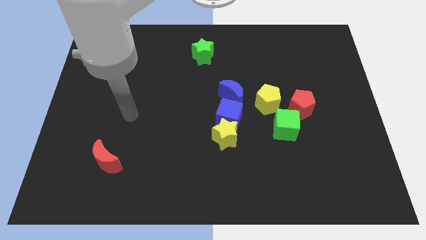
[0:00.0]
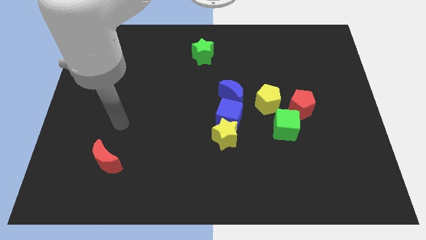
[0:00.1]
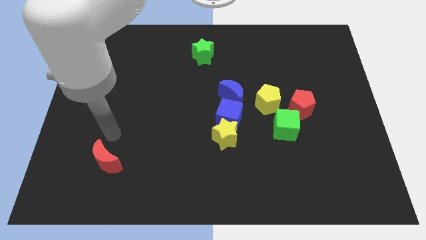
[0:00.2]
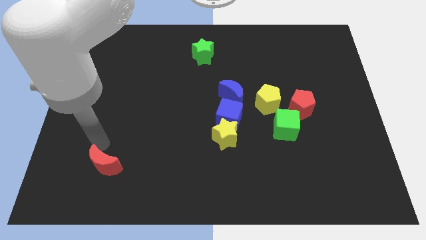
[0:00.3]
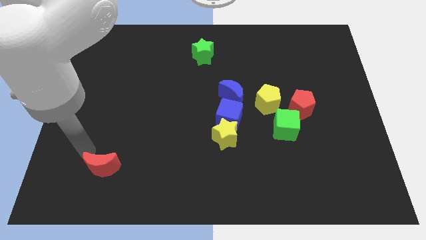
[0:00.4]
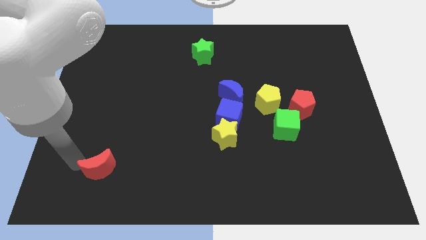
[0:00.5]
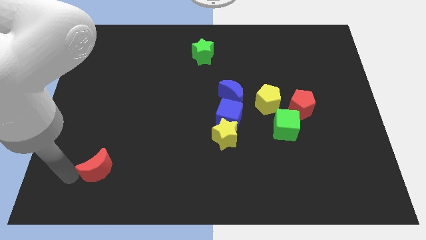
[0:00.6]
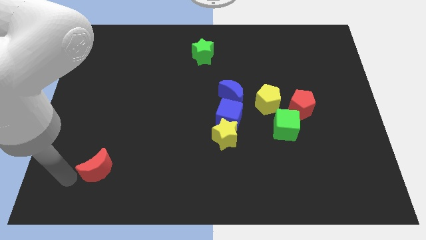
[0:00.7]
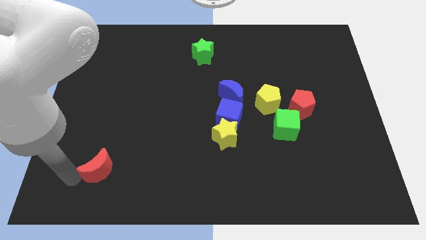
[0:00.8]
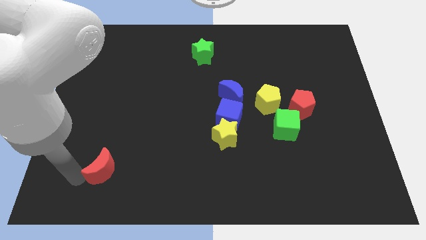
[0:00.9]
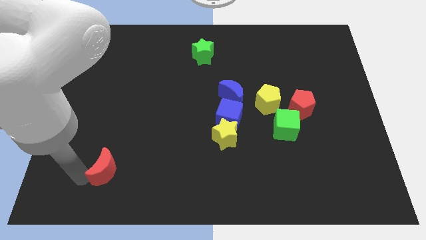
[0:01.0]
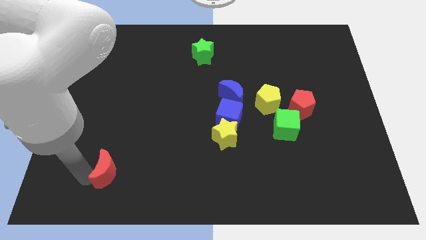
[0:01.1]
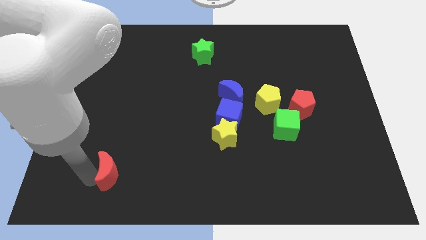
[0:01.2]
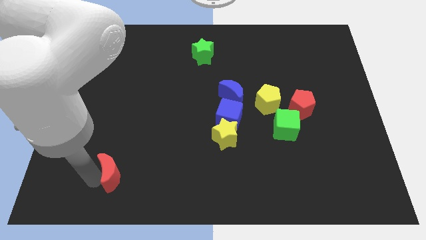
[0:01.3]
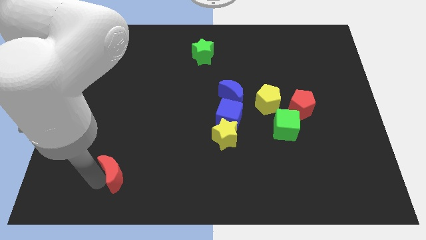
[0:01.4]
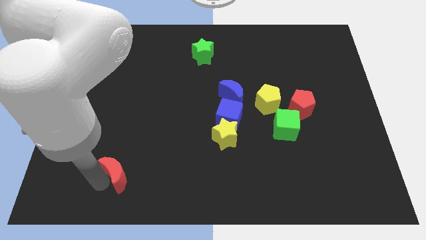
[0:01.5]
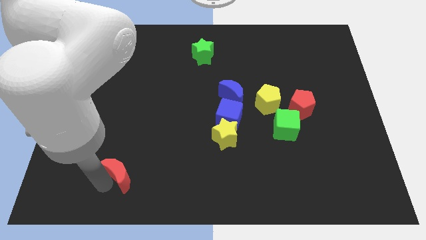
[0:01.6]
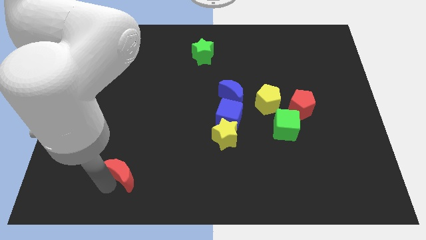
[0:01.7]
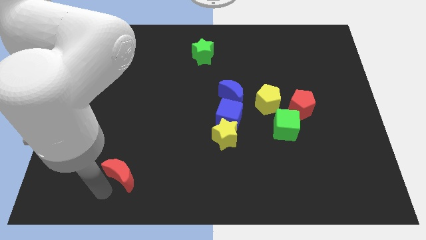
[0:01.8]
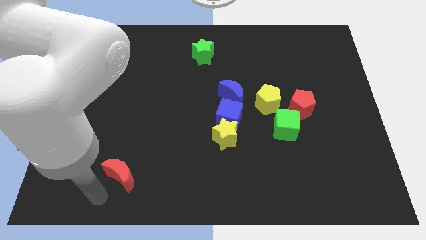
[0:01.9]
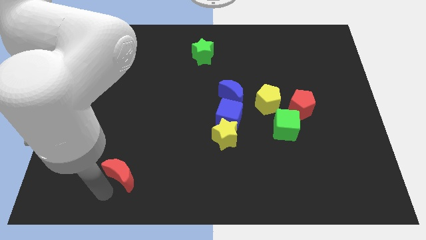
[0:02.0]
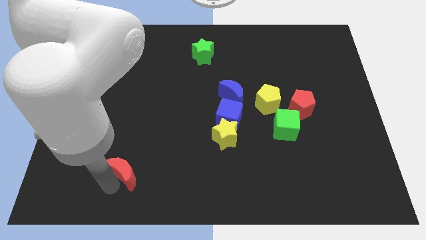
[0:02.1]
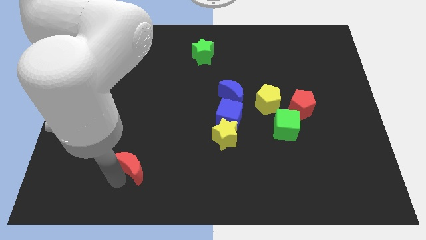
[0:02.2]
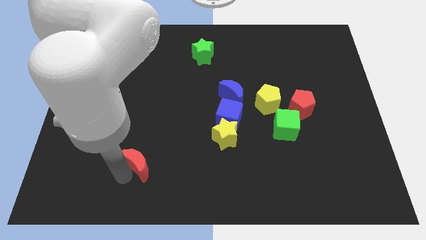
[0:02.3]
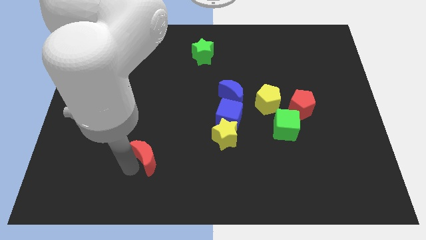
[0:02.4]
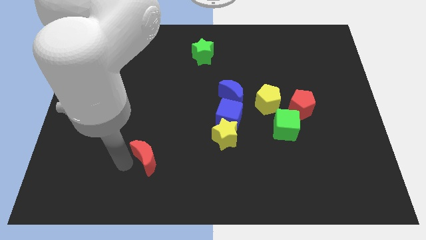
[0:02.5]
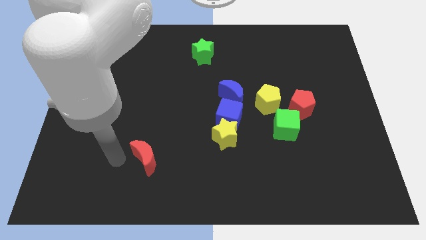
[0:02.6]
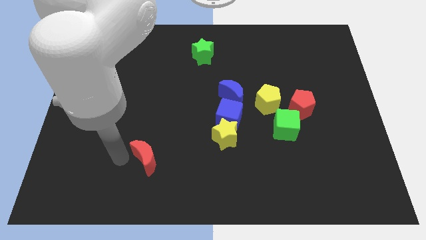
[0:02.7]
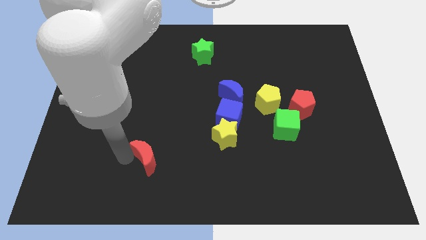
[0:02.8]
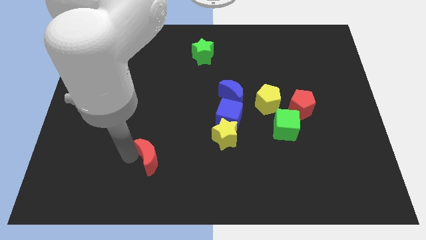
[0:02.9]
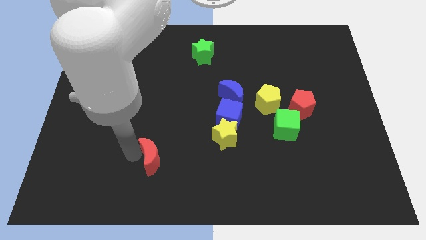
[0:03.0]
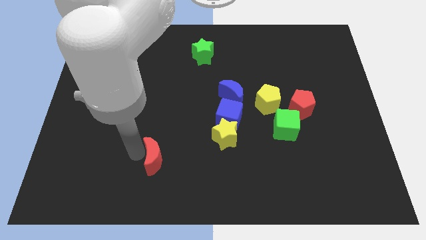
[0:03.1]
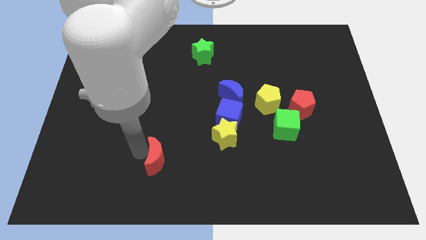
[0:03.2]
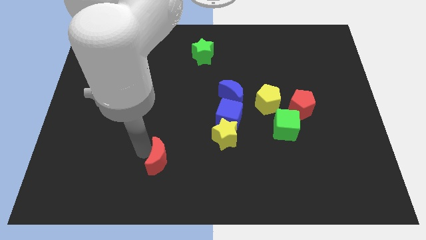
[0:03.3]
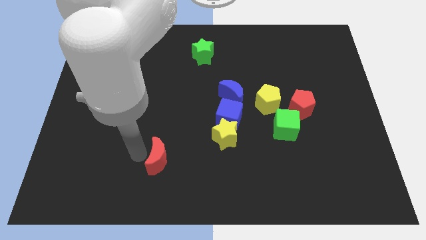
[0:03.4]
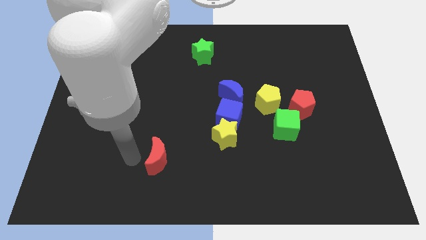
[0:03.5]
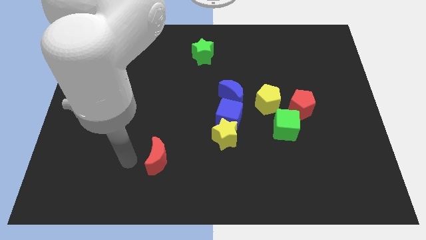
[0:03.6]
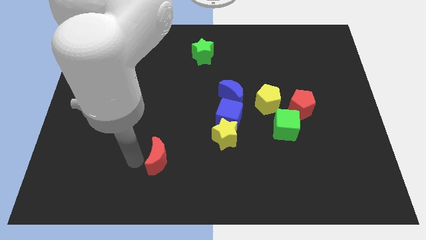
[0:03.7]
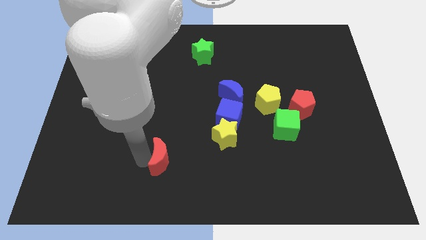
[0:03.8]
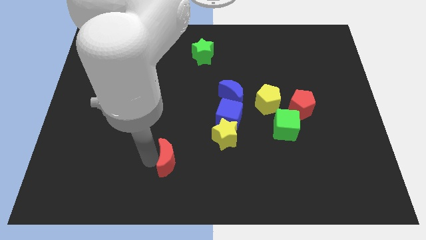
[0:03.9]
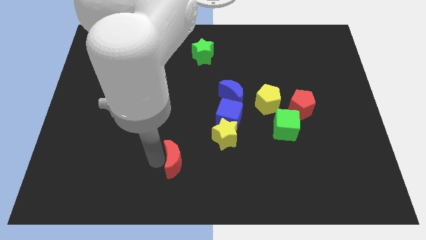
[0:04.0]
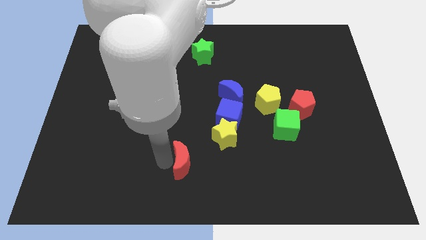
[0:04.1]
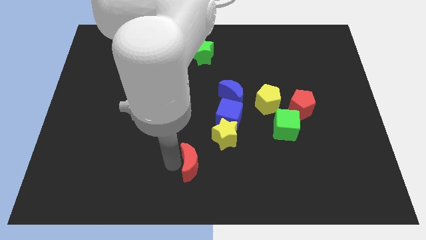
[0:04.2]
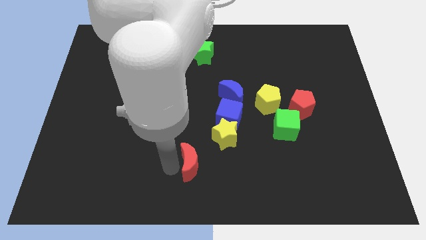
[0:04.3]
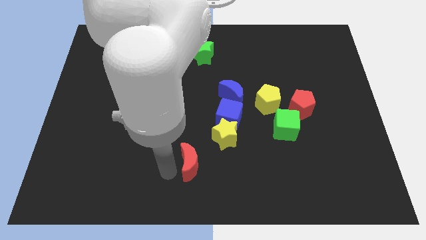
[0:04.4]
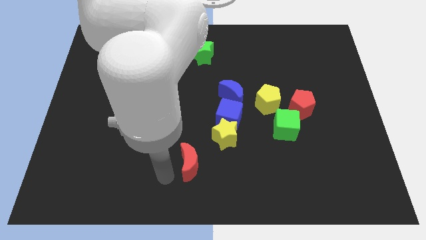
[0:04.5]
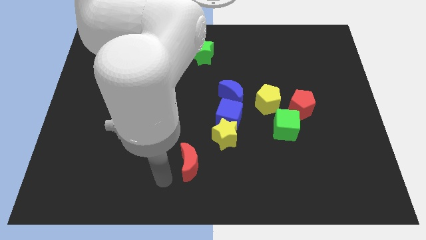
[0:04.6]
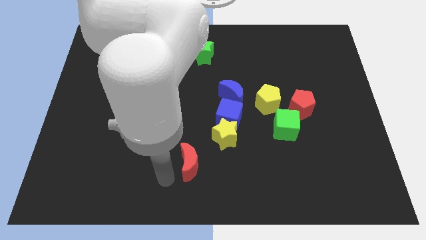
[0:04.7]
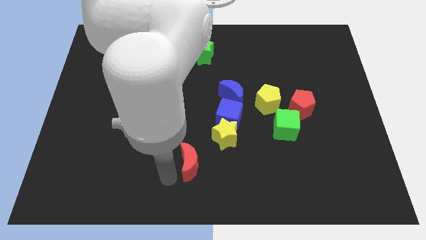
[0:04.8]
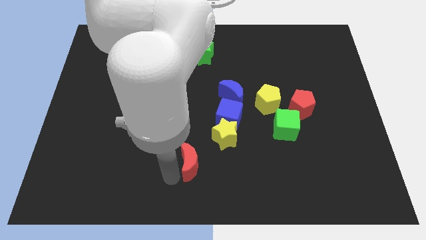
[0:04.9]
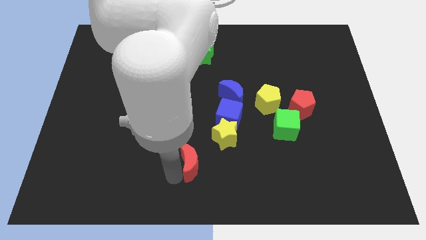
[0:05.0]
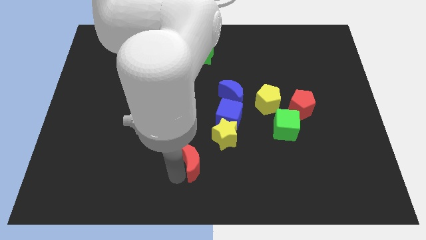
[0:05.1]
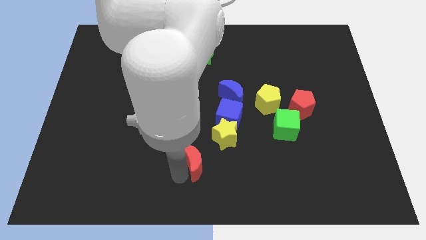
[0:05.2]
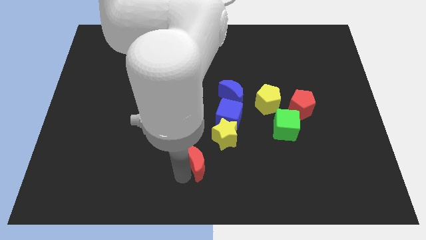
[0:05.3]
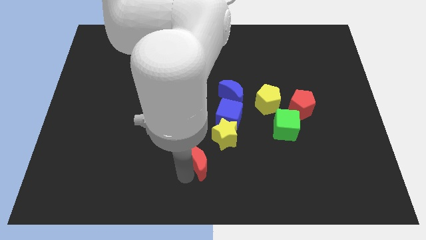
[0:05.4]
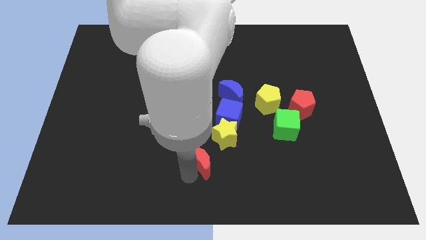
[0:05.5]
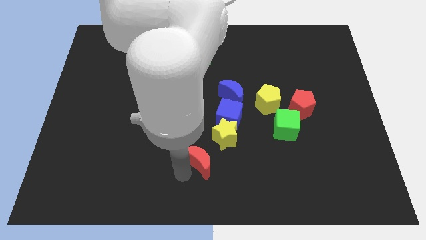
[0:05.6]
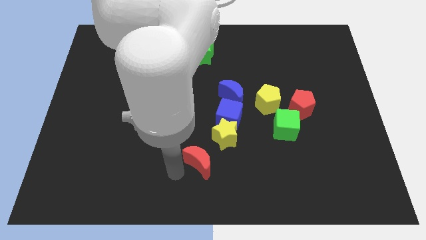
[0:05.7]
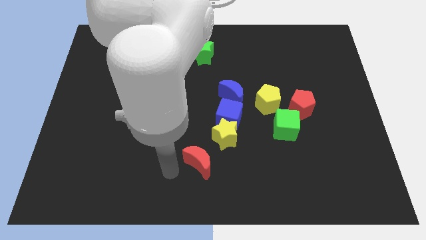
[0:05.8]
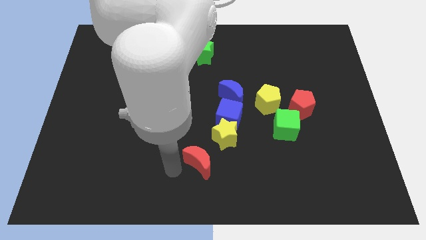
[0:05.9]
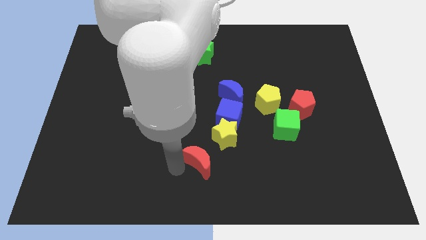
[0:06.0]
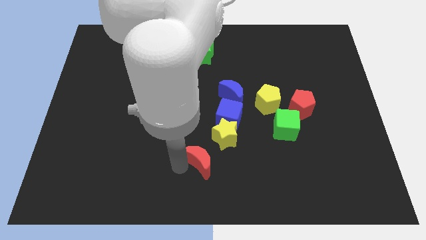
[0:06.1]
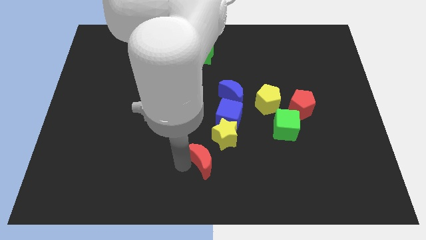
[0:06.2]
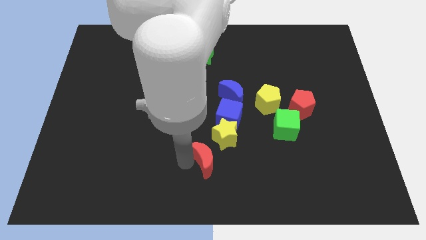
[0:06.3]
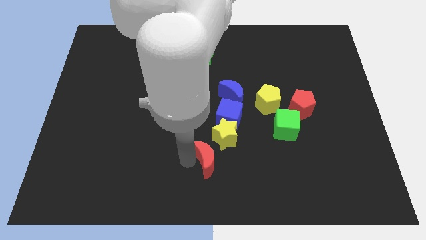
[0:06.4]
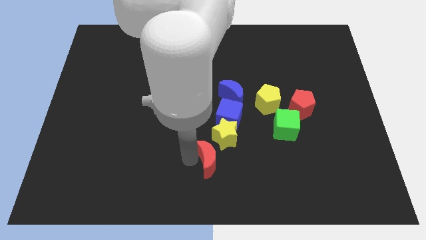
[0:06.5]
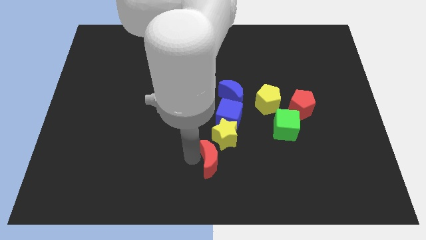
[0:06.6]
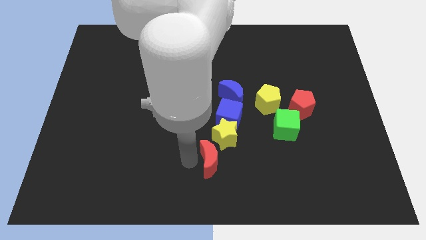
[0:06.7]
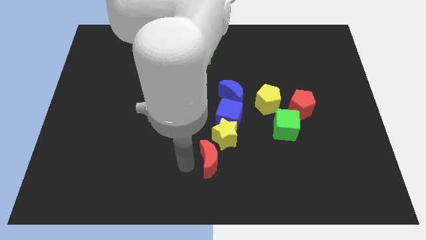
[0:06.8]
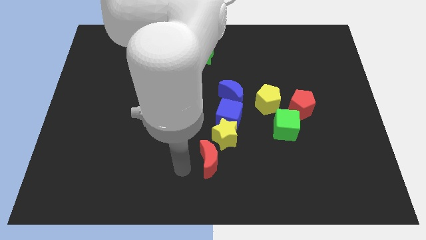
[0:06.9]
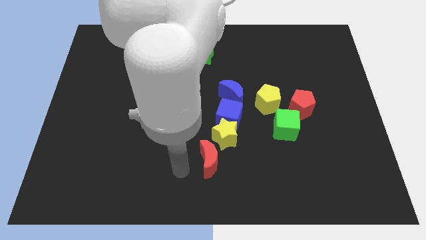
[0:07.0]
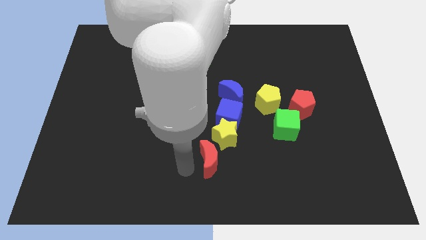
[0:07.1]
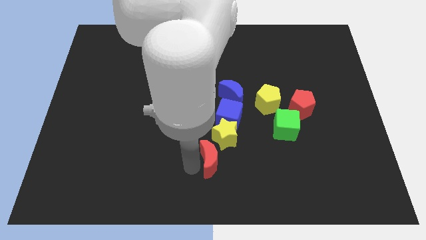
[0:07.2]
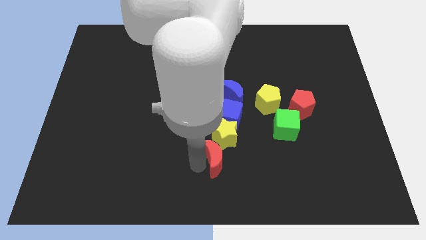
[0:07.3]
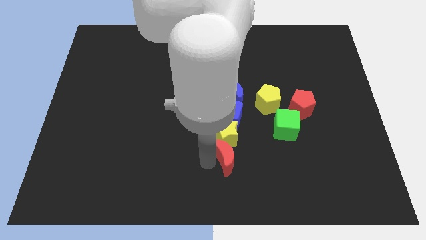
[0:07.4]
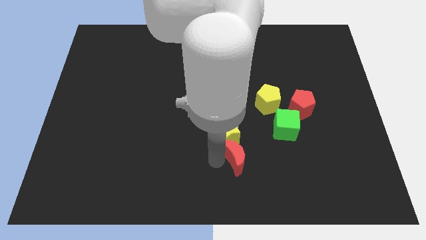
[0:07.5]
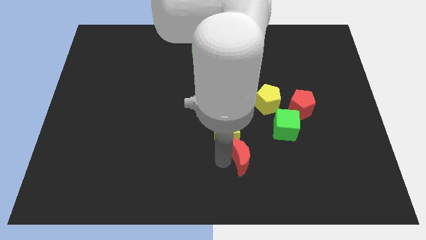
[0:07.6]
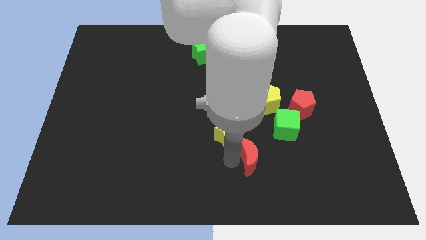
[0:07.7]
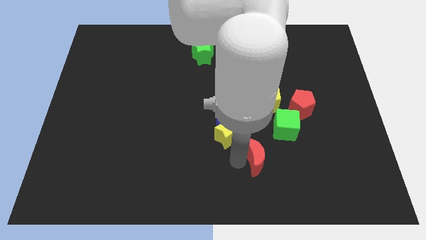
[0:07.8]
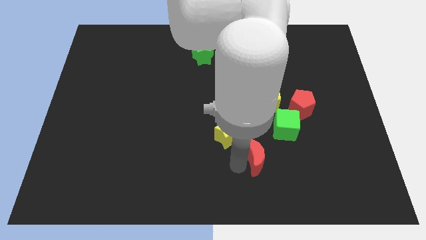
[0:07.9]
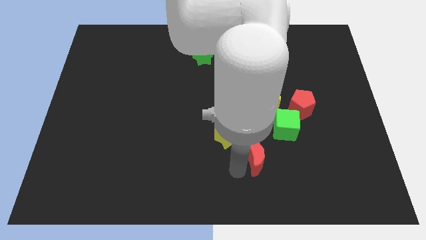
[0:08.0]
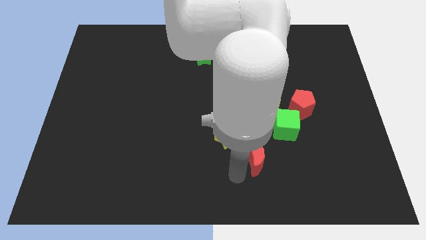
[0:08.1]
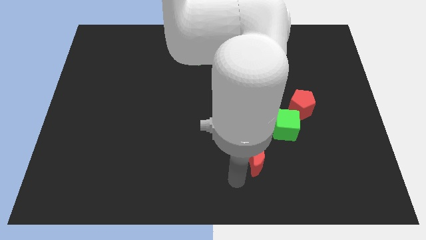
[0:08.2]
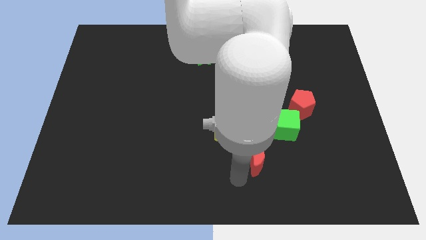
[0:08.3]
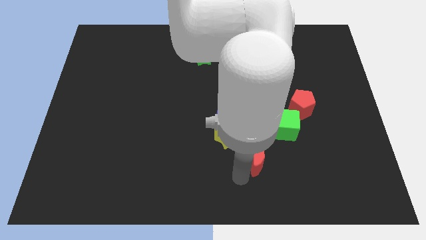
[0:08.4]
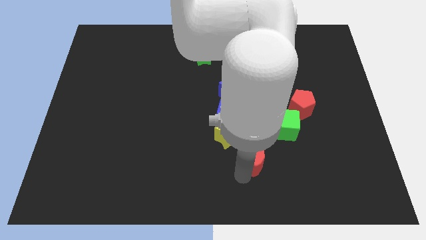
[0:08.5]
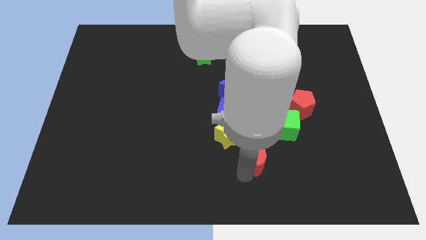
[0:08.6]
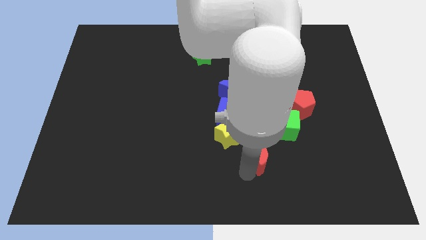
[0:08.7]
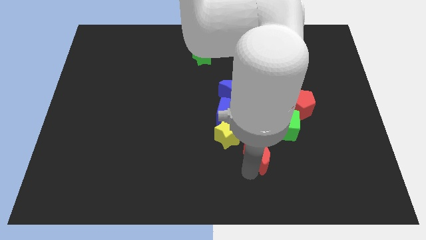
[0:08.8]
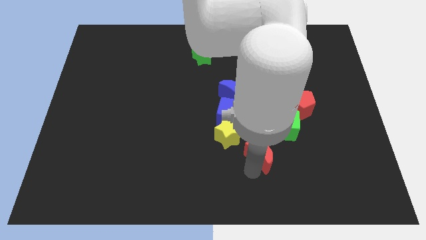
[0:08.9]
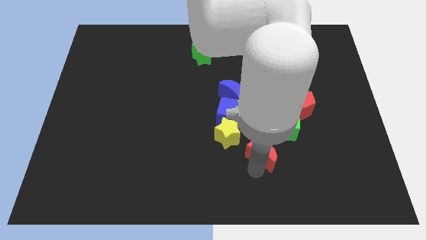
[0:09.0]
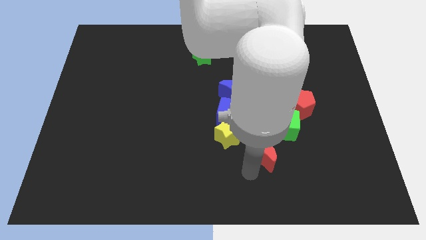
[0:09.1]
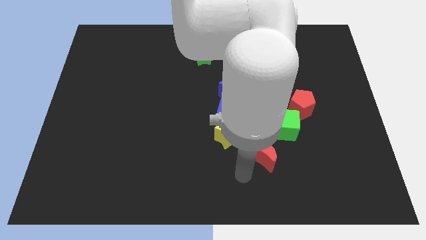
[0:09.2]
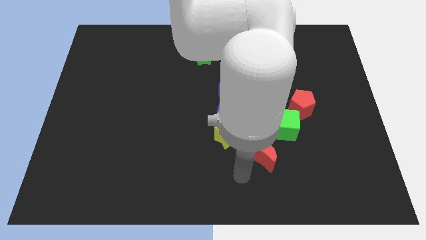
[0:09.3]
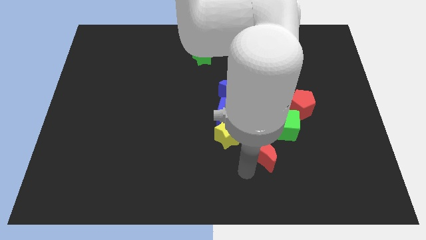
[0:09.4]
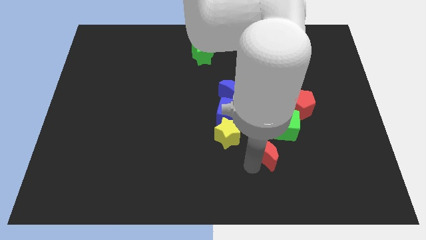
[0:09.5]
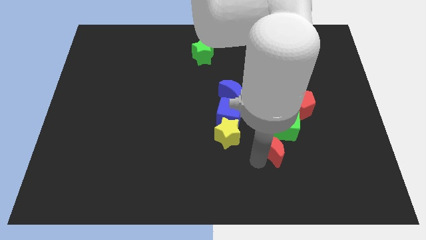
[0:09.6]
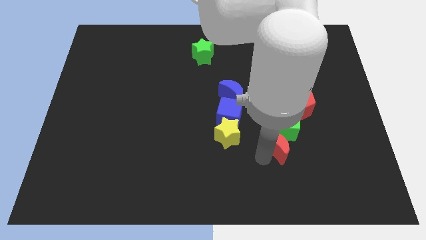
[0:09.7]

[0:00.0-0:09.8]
slide the red moon next to the green cube
